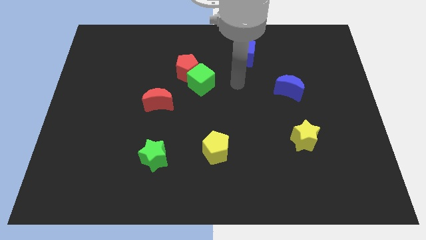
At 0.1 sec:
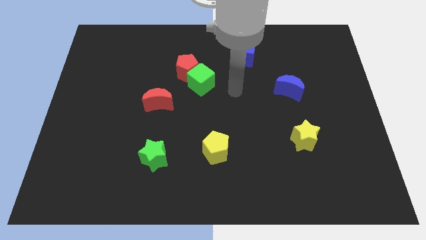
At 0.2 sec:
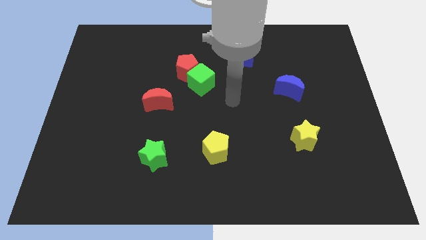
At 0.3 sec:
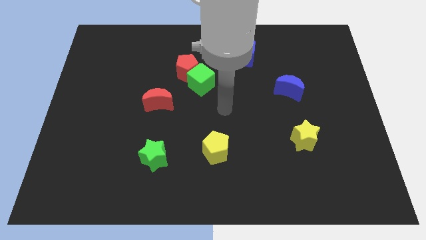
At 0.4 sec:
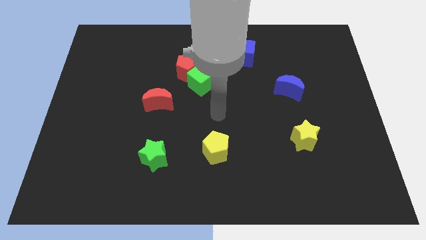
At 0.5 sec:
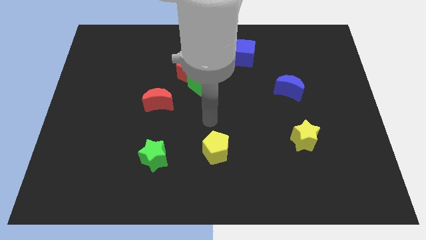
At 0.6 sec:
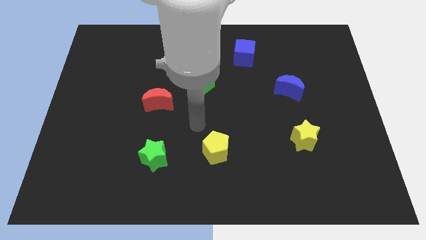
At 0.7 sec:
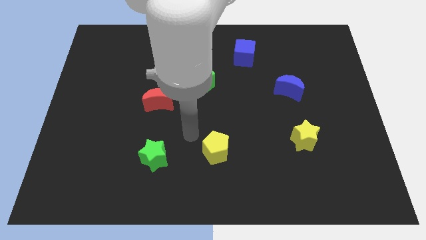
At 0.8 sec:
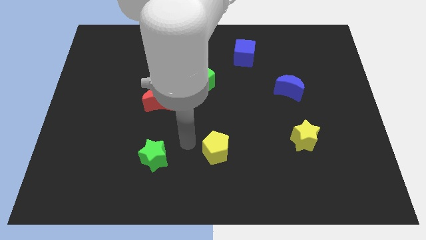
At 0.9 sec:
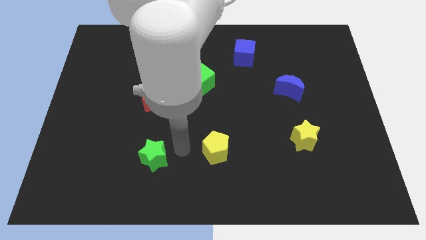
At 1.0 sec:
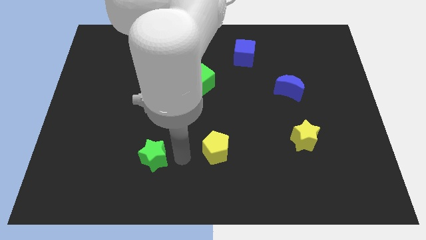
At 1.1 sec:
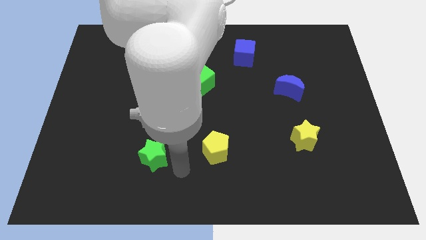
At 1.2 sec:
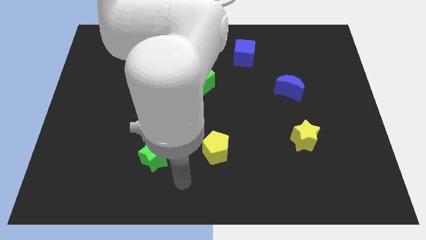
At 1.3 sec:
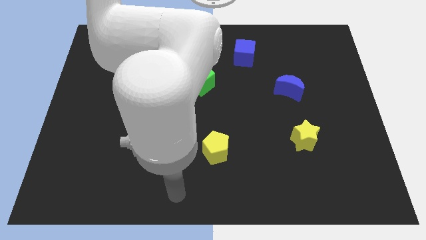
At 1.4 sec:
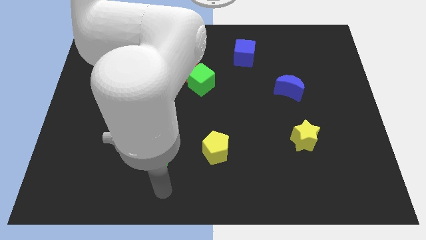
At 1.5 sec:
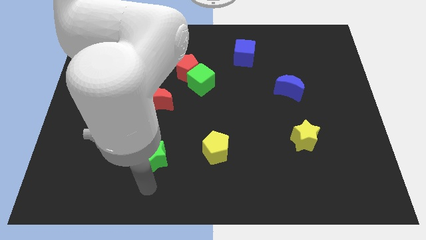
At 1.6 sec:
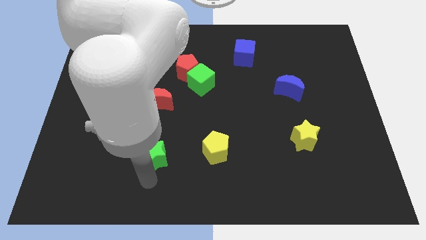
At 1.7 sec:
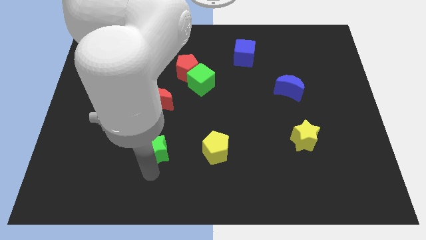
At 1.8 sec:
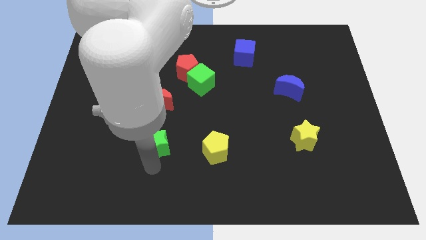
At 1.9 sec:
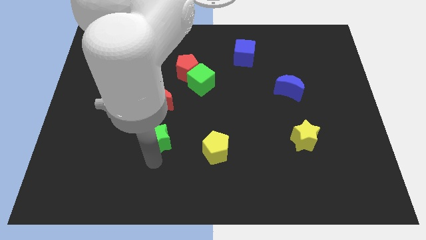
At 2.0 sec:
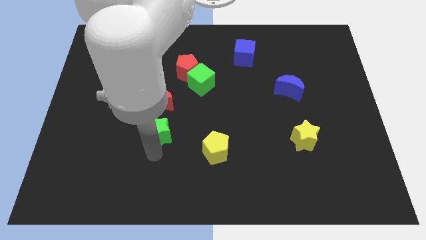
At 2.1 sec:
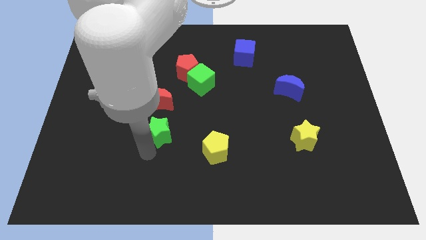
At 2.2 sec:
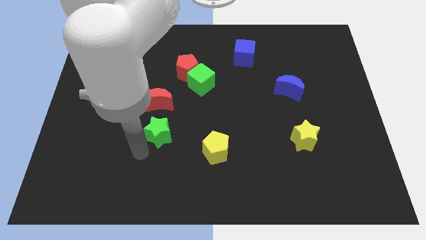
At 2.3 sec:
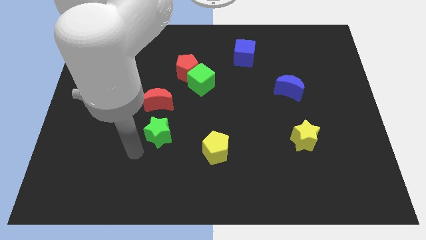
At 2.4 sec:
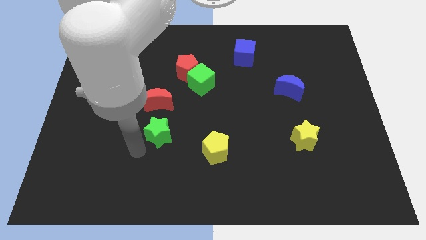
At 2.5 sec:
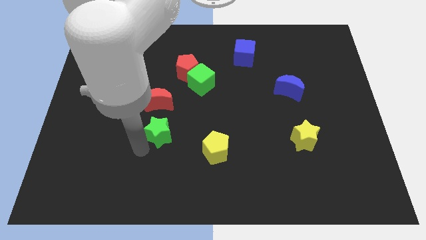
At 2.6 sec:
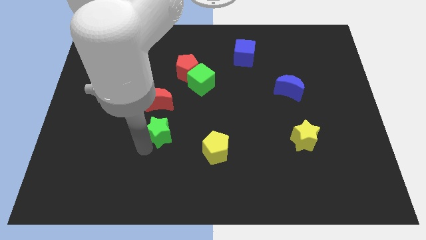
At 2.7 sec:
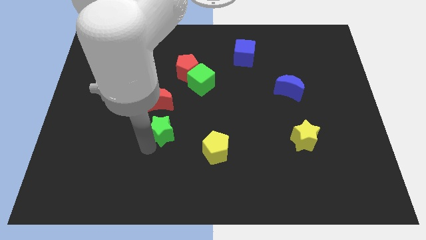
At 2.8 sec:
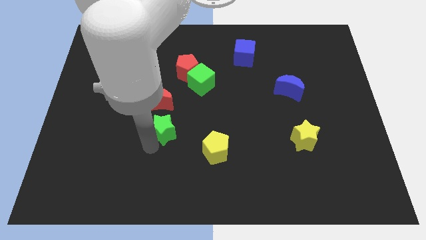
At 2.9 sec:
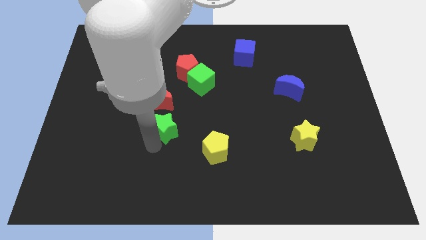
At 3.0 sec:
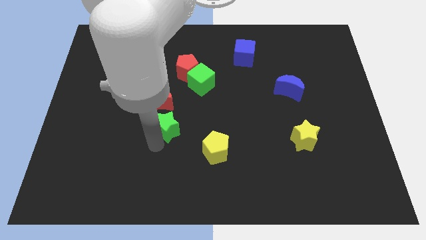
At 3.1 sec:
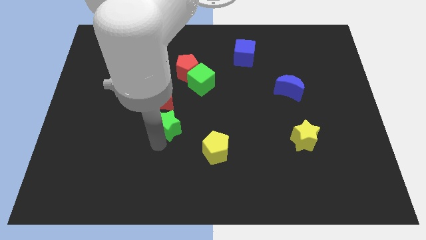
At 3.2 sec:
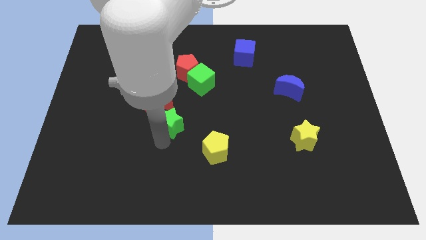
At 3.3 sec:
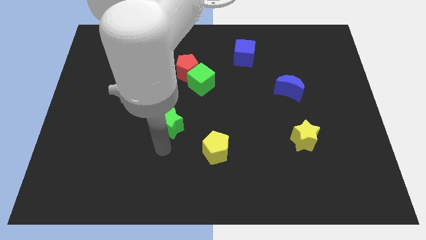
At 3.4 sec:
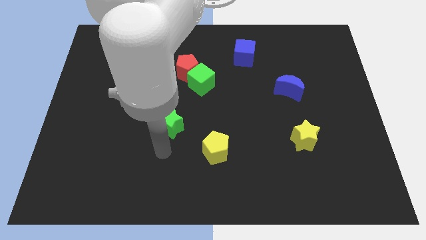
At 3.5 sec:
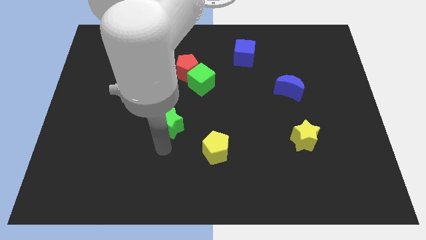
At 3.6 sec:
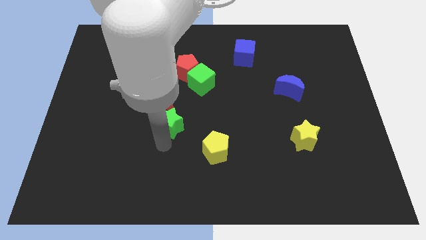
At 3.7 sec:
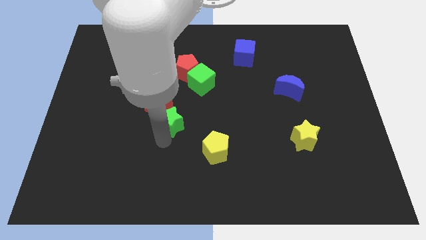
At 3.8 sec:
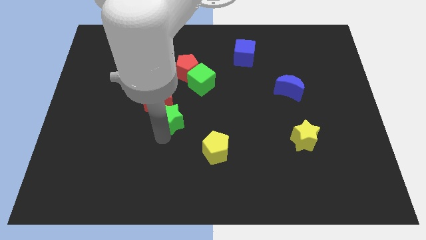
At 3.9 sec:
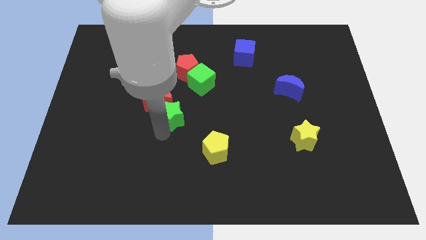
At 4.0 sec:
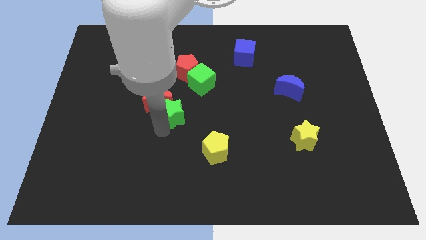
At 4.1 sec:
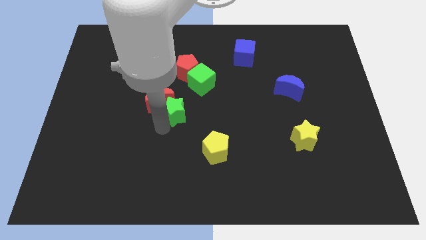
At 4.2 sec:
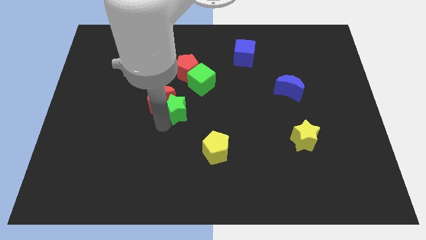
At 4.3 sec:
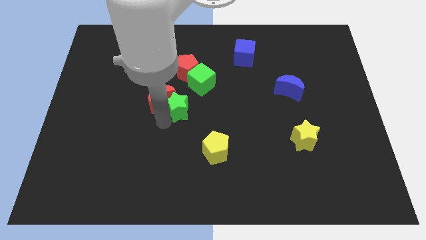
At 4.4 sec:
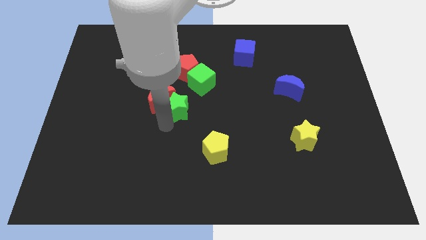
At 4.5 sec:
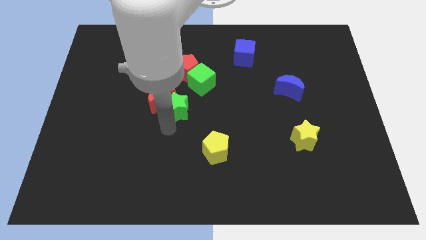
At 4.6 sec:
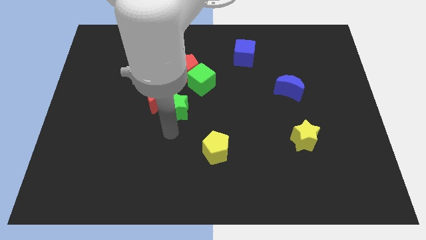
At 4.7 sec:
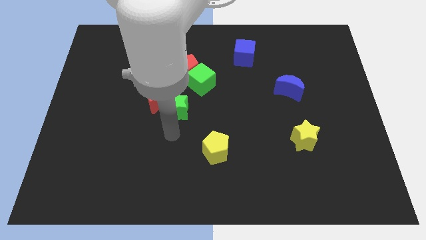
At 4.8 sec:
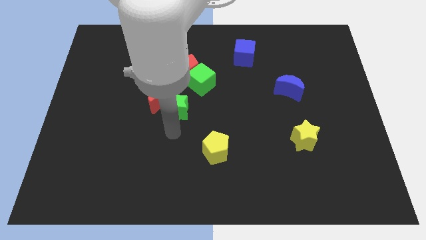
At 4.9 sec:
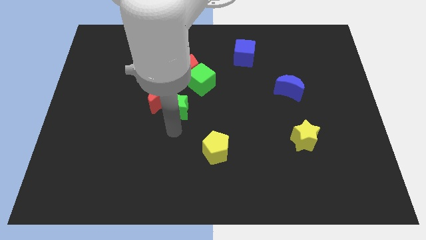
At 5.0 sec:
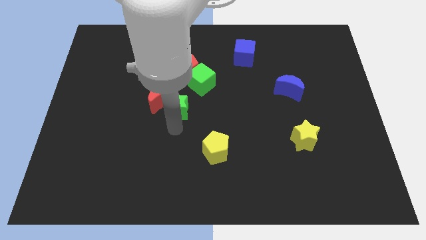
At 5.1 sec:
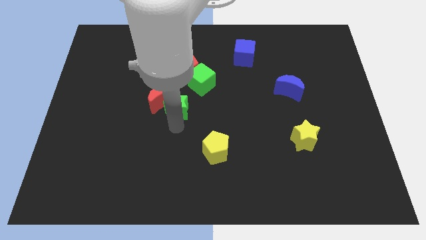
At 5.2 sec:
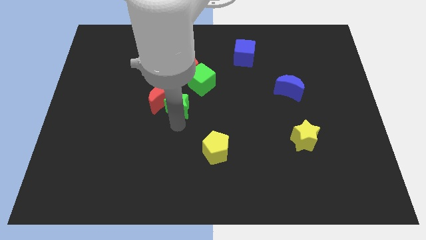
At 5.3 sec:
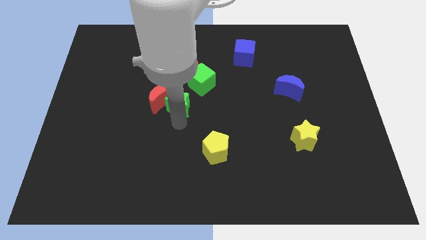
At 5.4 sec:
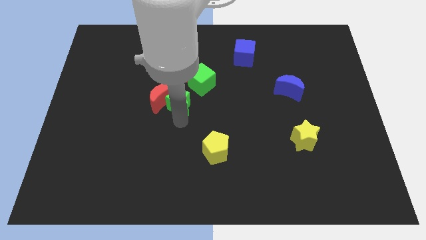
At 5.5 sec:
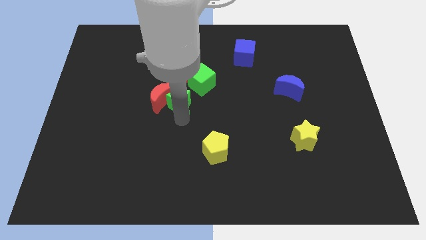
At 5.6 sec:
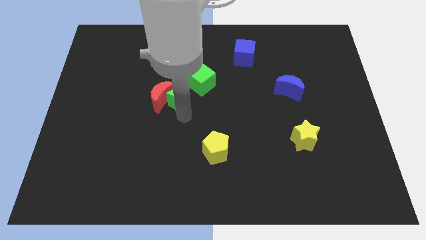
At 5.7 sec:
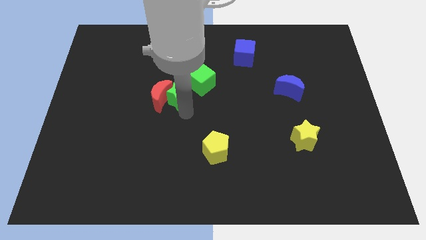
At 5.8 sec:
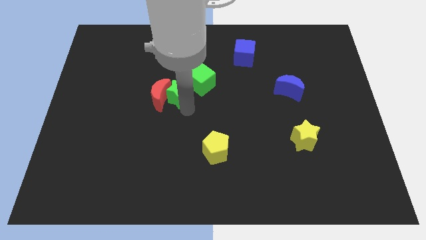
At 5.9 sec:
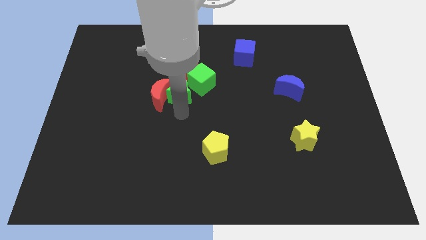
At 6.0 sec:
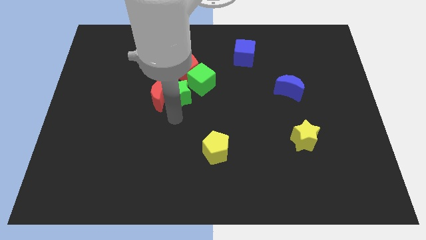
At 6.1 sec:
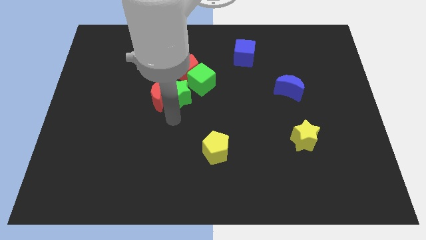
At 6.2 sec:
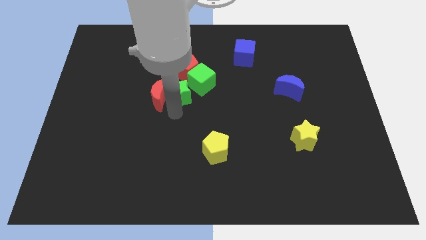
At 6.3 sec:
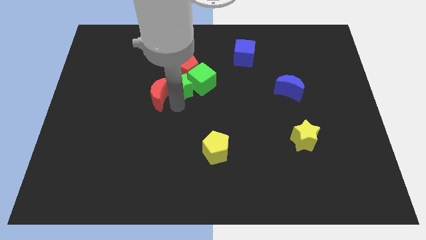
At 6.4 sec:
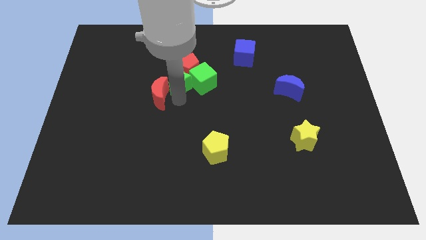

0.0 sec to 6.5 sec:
slide the green star to the red pentagon

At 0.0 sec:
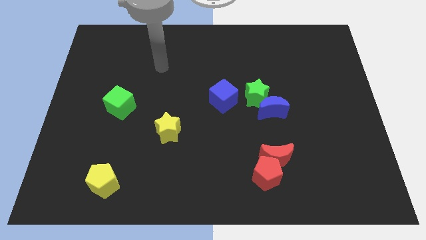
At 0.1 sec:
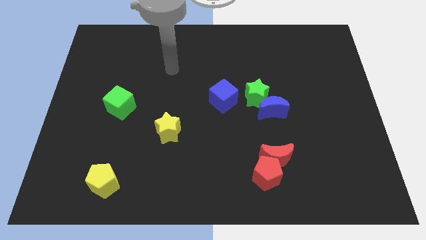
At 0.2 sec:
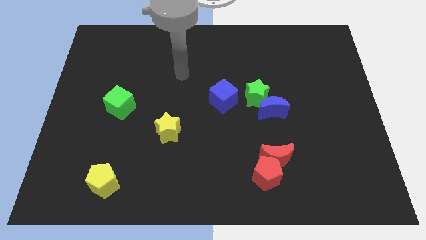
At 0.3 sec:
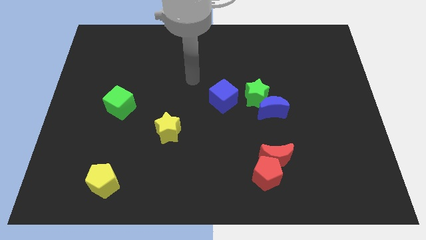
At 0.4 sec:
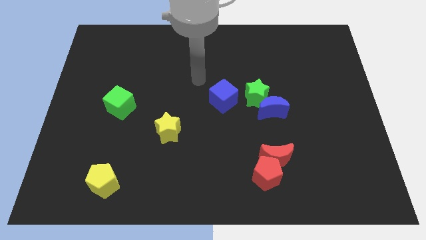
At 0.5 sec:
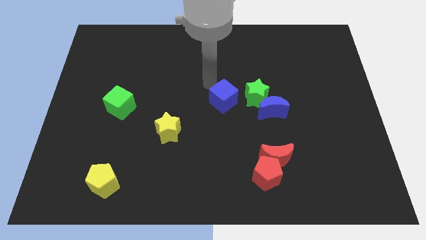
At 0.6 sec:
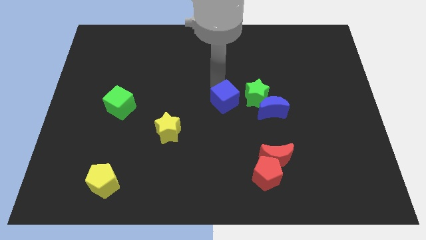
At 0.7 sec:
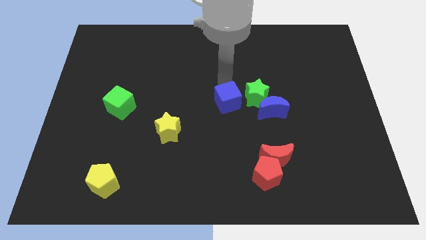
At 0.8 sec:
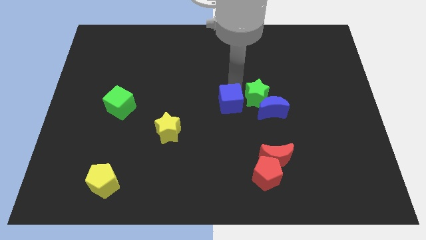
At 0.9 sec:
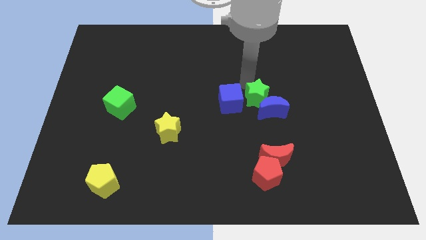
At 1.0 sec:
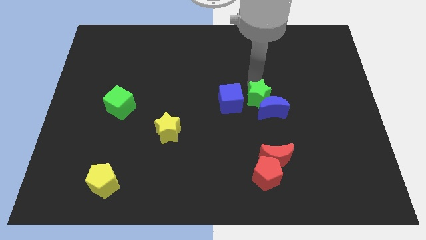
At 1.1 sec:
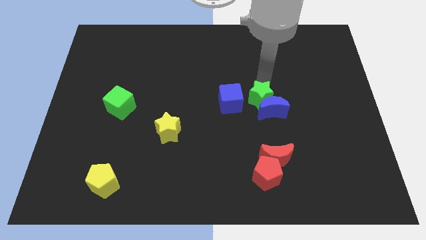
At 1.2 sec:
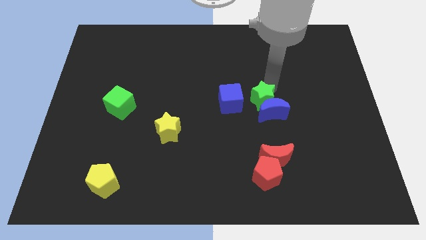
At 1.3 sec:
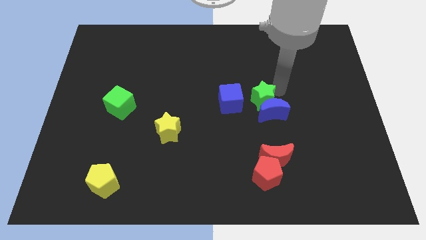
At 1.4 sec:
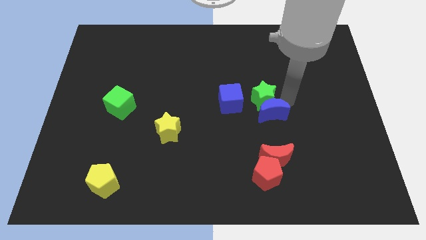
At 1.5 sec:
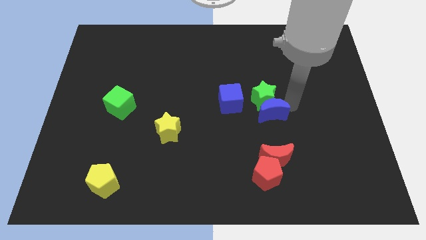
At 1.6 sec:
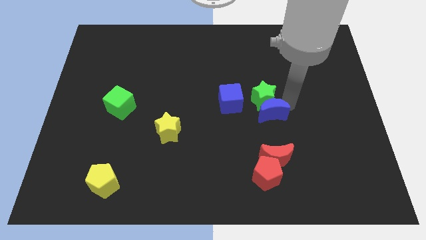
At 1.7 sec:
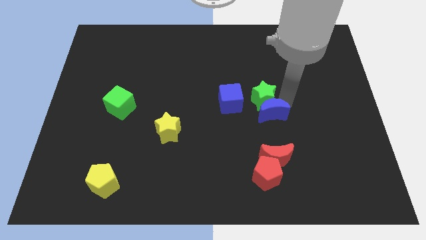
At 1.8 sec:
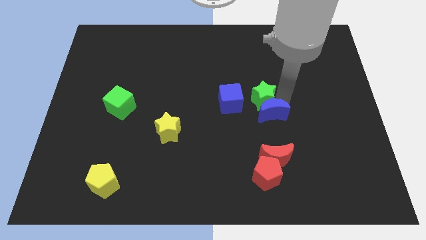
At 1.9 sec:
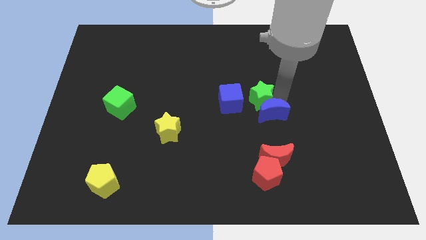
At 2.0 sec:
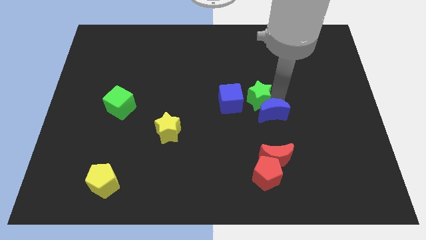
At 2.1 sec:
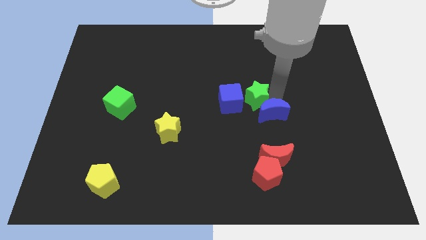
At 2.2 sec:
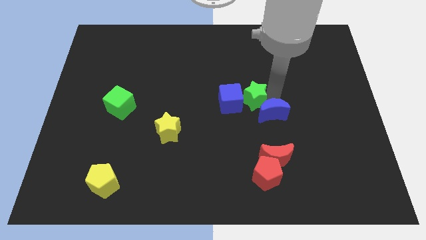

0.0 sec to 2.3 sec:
push the green star to the blue cube
